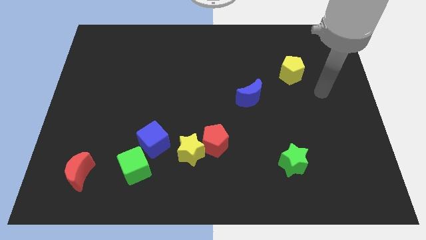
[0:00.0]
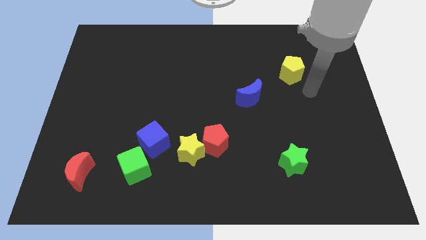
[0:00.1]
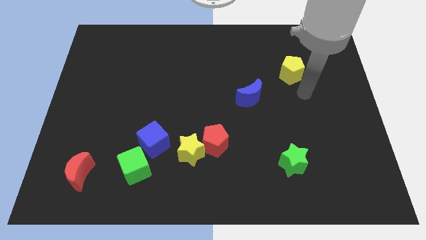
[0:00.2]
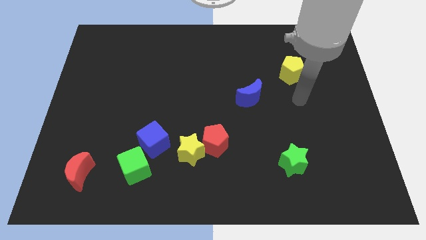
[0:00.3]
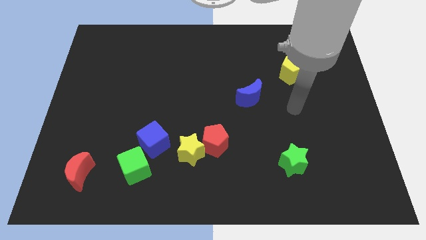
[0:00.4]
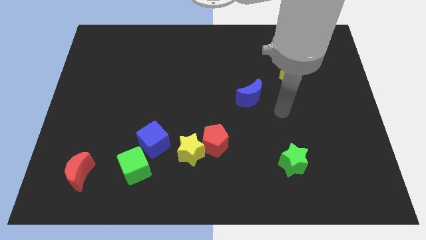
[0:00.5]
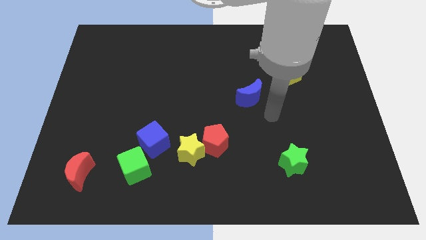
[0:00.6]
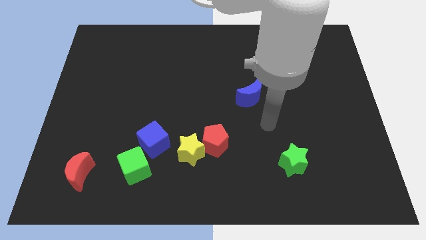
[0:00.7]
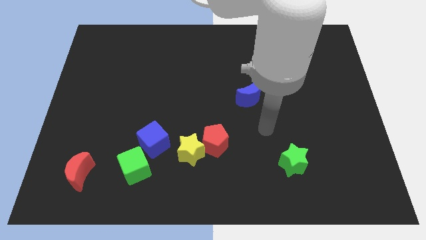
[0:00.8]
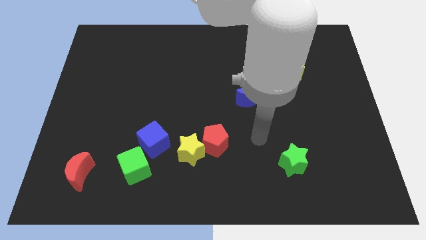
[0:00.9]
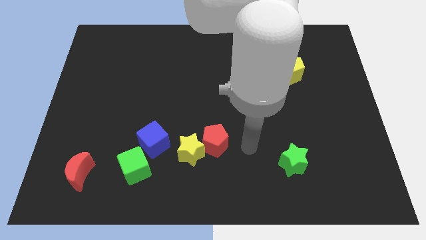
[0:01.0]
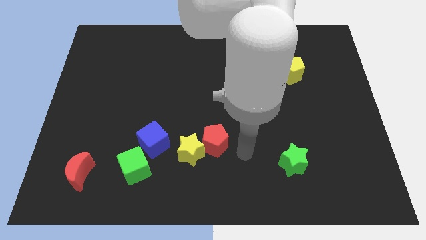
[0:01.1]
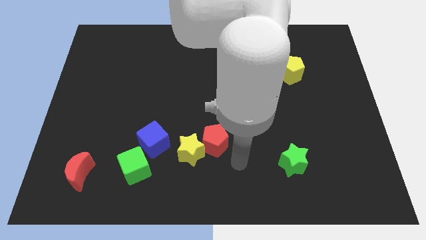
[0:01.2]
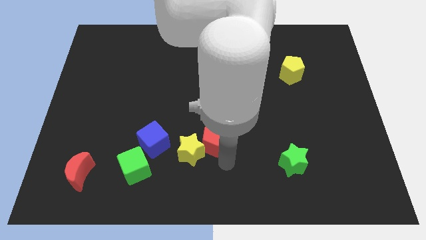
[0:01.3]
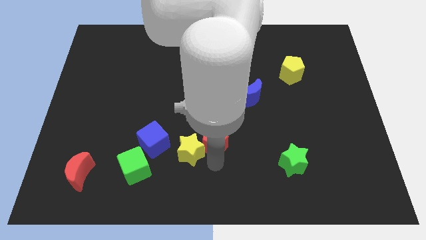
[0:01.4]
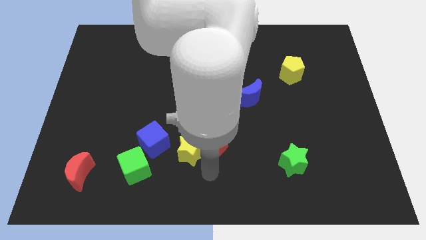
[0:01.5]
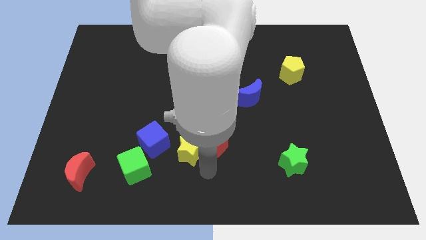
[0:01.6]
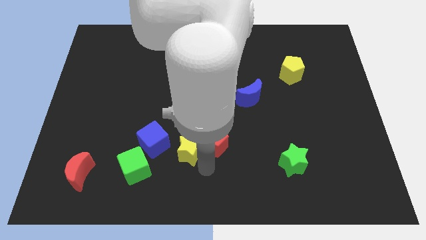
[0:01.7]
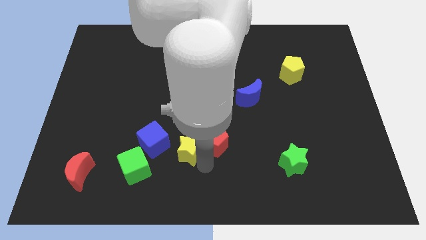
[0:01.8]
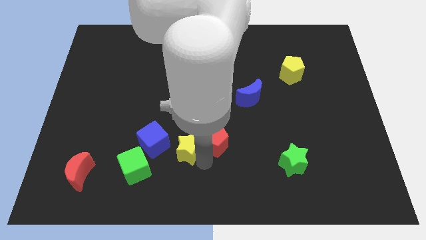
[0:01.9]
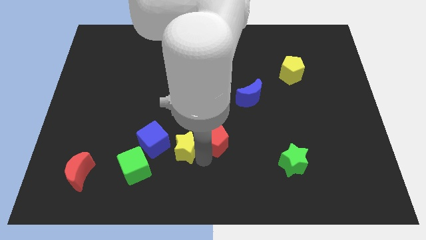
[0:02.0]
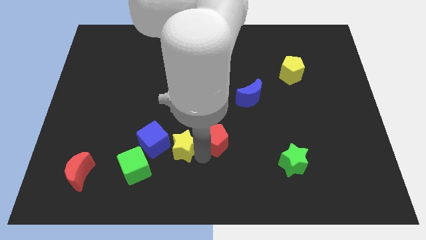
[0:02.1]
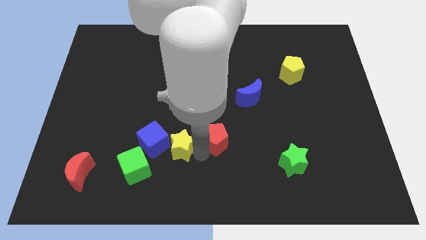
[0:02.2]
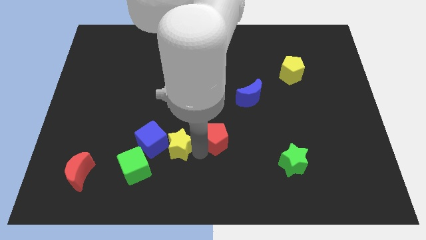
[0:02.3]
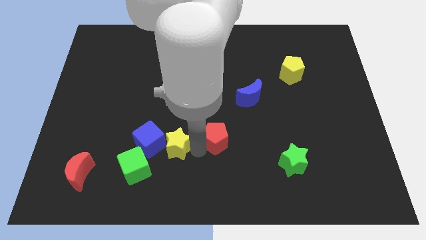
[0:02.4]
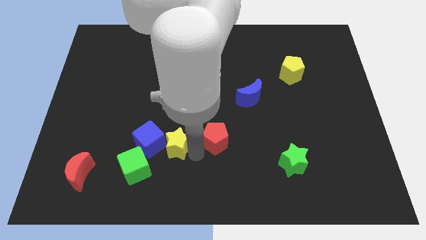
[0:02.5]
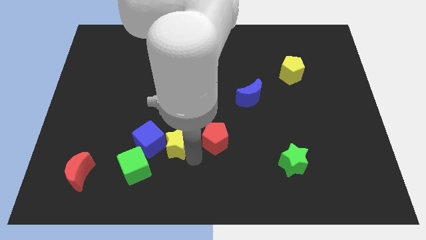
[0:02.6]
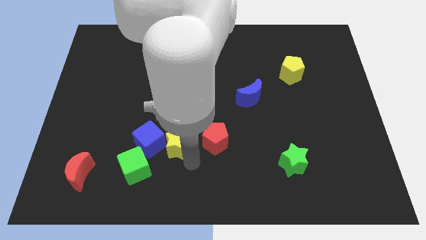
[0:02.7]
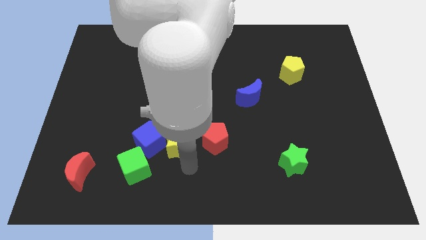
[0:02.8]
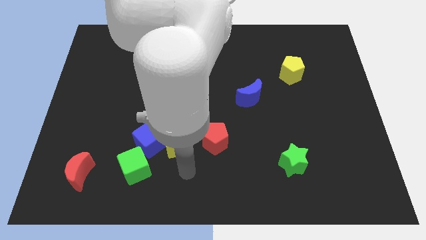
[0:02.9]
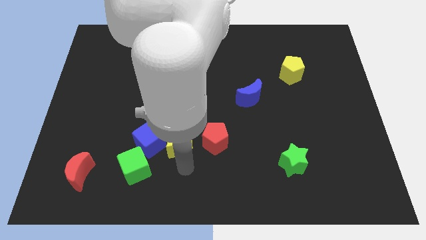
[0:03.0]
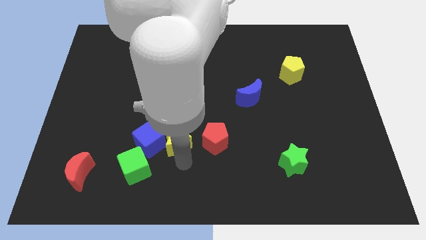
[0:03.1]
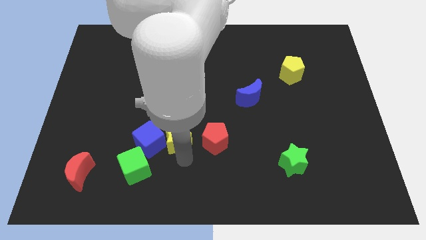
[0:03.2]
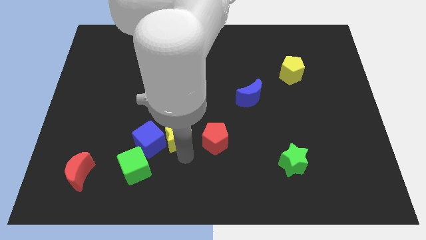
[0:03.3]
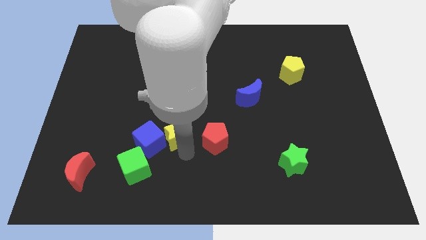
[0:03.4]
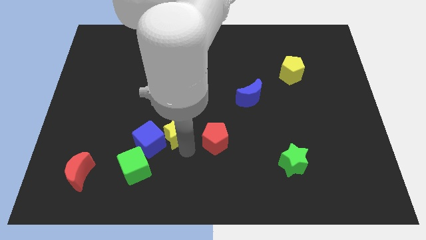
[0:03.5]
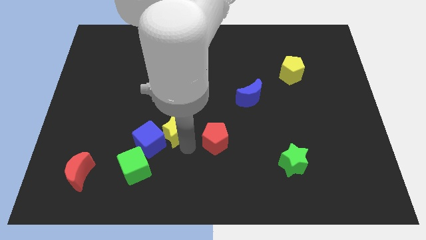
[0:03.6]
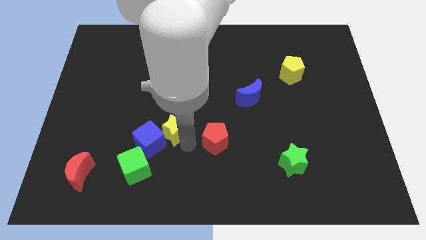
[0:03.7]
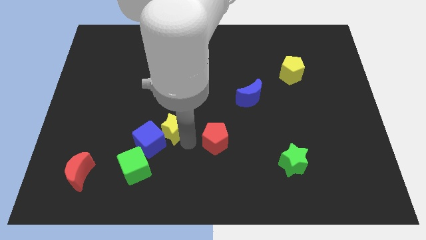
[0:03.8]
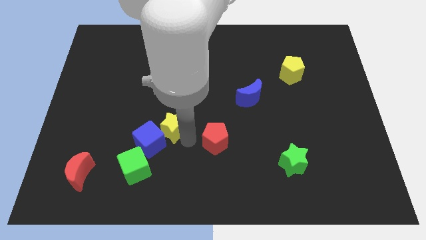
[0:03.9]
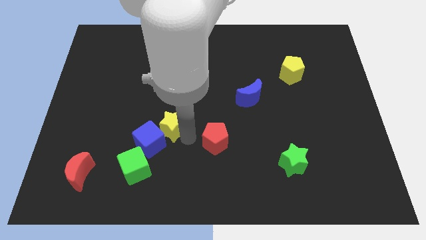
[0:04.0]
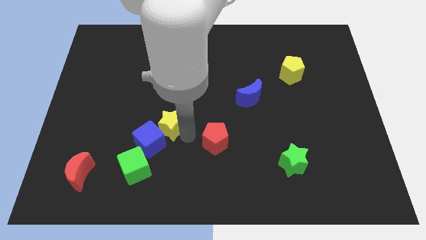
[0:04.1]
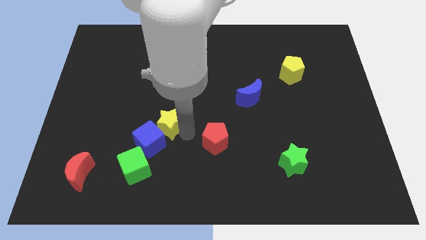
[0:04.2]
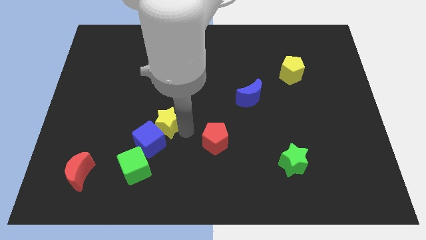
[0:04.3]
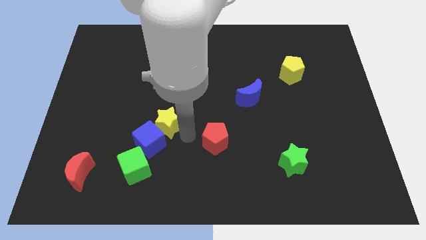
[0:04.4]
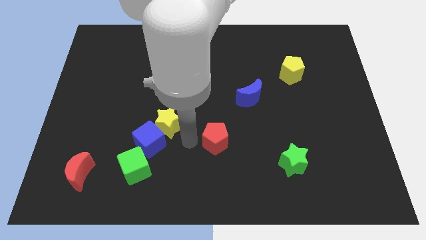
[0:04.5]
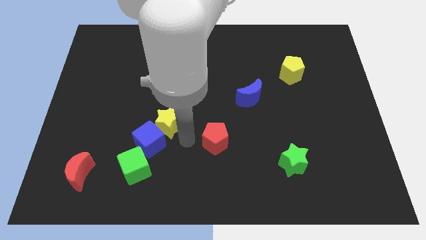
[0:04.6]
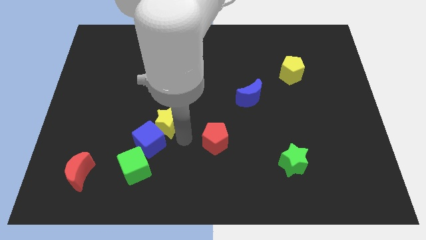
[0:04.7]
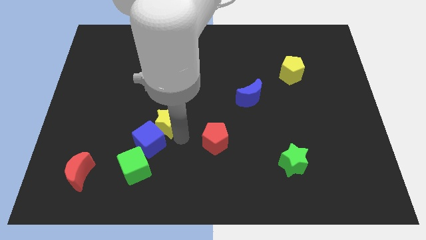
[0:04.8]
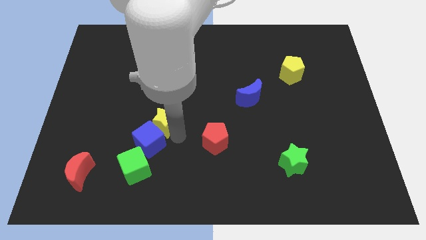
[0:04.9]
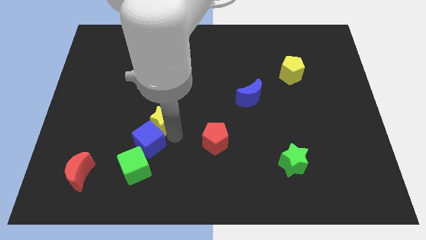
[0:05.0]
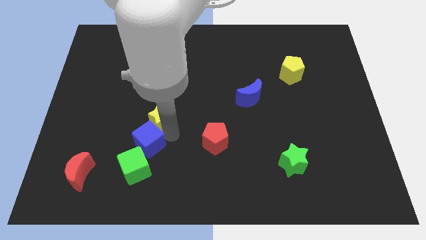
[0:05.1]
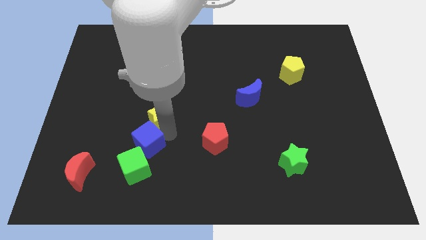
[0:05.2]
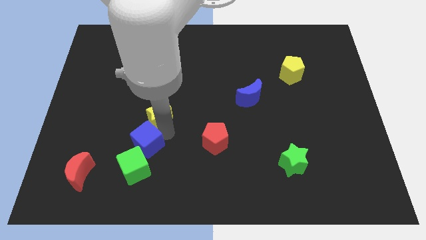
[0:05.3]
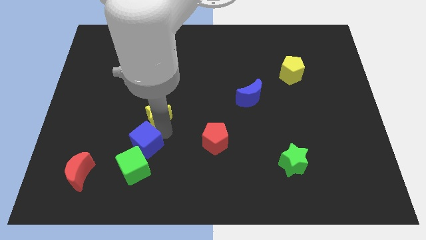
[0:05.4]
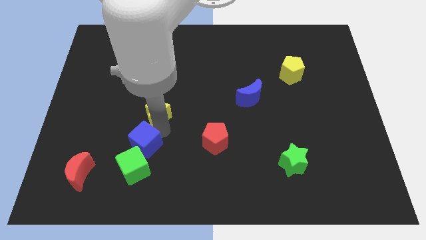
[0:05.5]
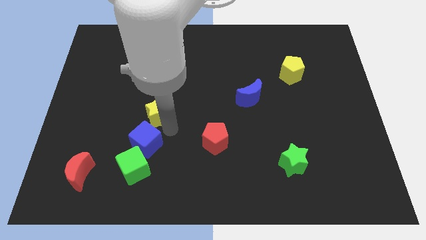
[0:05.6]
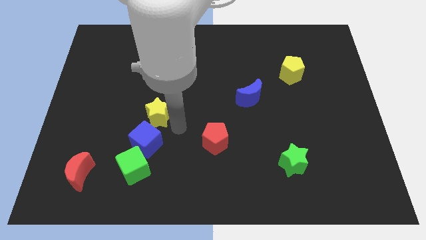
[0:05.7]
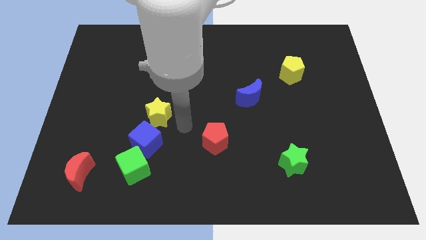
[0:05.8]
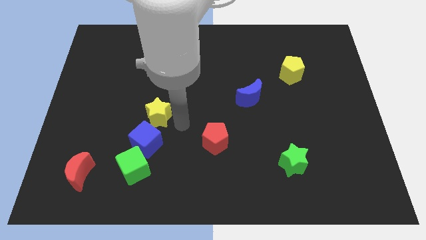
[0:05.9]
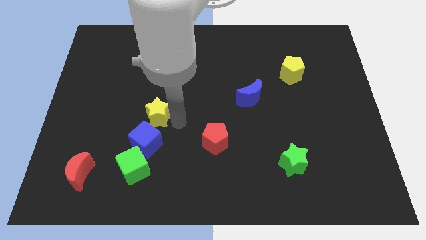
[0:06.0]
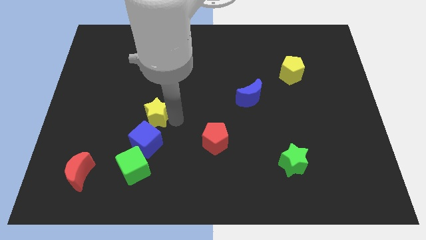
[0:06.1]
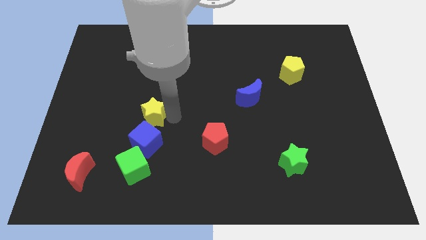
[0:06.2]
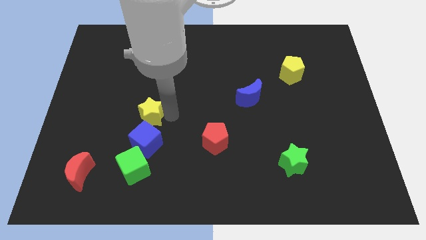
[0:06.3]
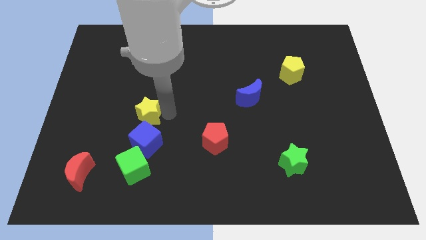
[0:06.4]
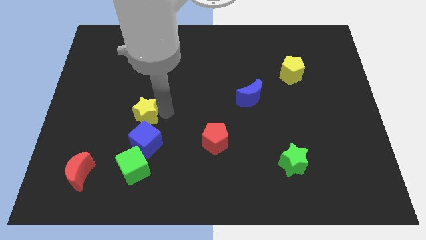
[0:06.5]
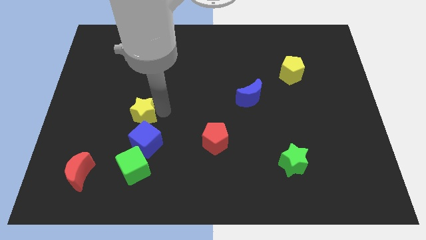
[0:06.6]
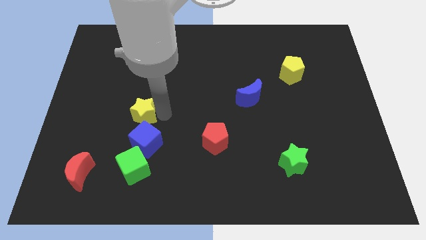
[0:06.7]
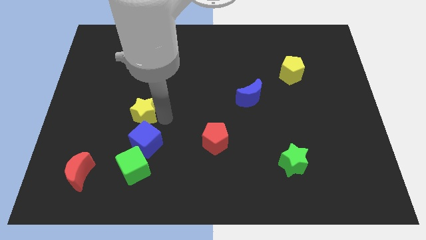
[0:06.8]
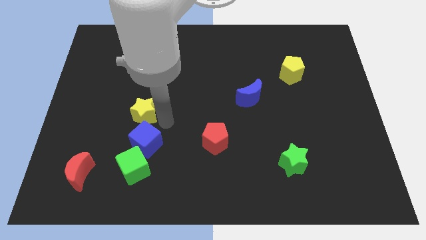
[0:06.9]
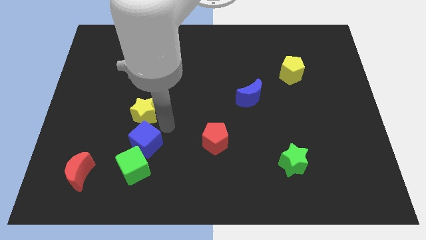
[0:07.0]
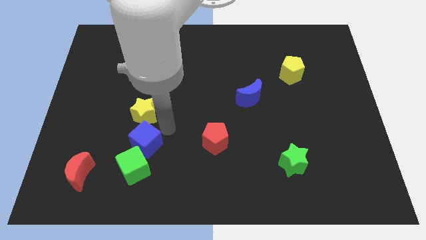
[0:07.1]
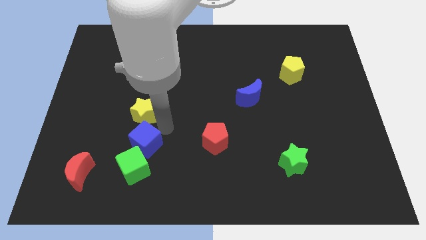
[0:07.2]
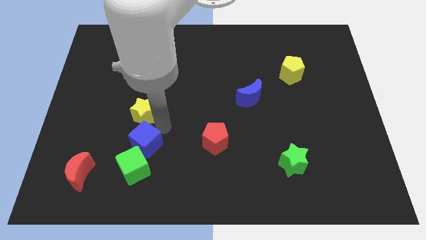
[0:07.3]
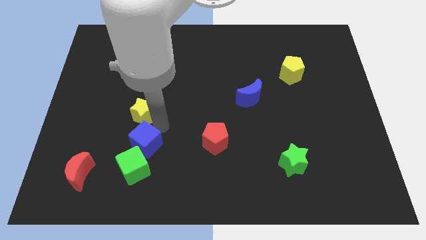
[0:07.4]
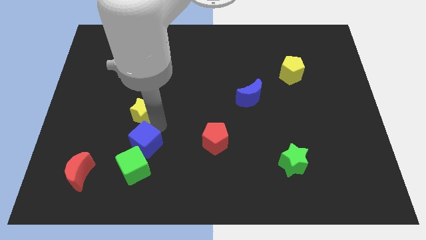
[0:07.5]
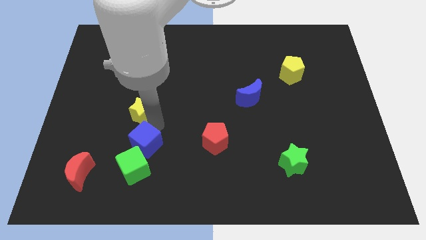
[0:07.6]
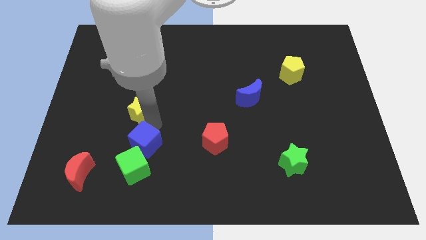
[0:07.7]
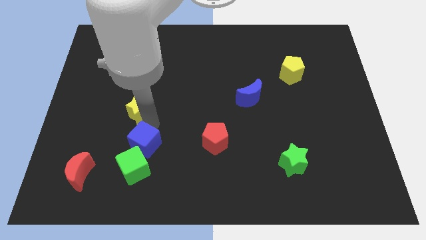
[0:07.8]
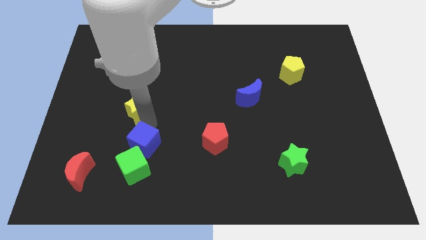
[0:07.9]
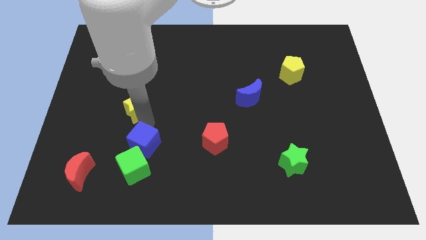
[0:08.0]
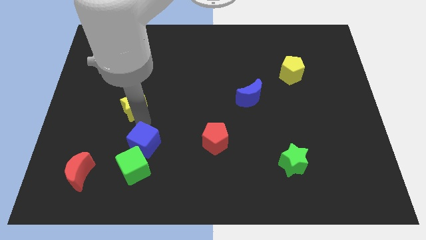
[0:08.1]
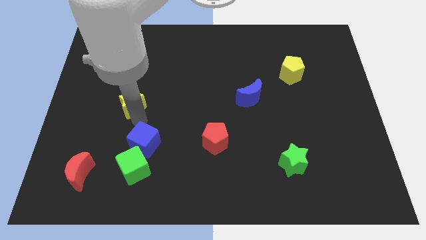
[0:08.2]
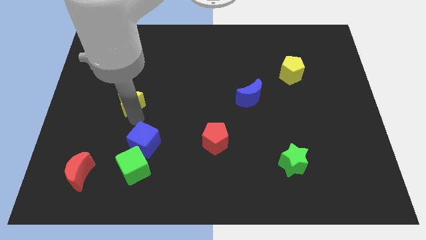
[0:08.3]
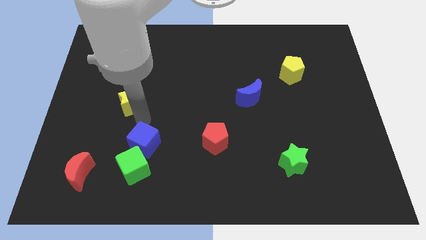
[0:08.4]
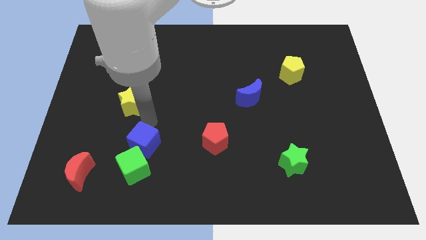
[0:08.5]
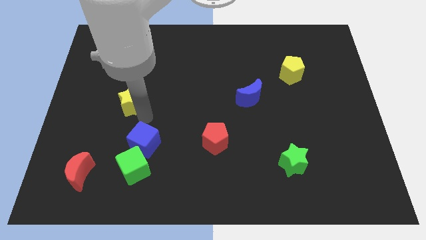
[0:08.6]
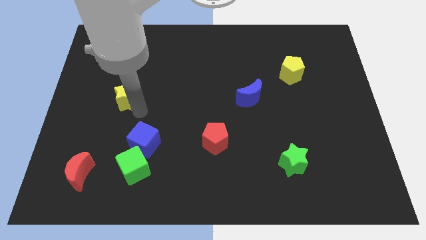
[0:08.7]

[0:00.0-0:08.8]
move the yellow star upwards and to the left
